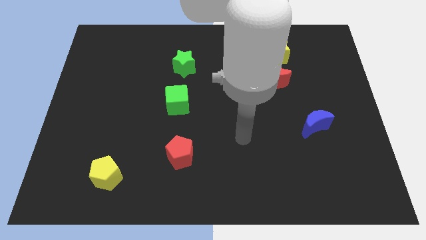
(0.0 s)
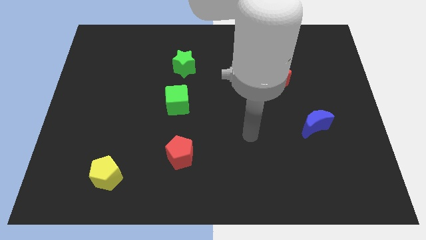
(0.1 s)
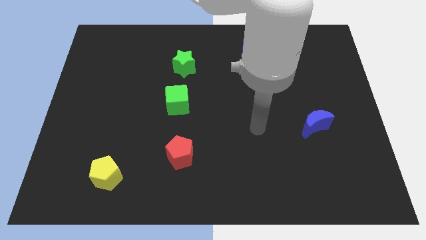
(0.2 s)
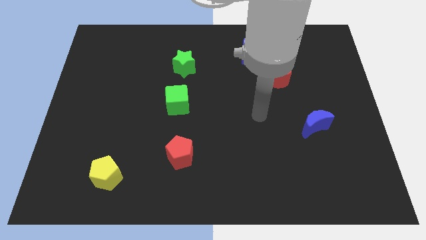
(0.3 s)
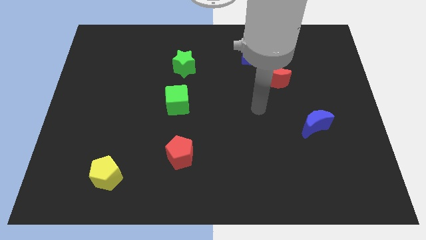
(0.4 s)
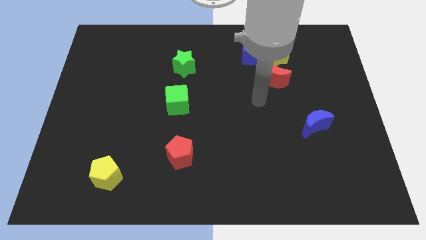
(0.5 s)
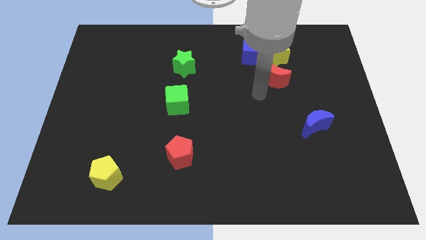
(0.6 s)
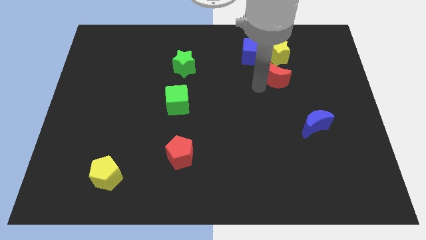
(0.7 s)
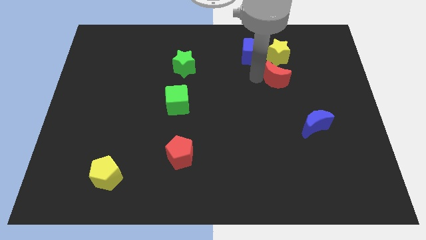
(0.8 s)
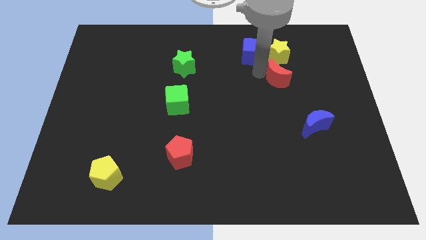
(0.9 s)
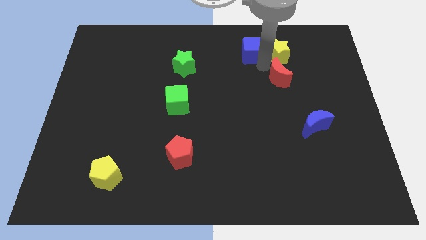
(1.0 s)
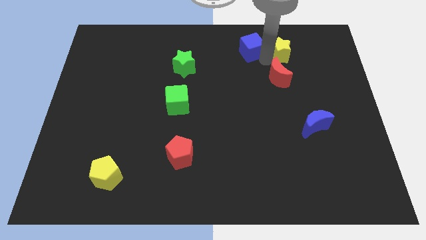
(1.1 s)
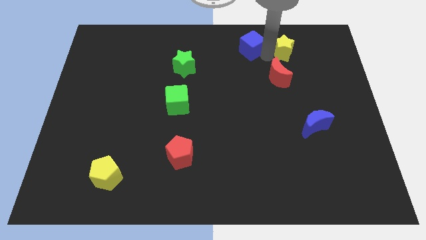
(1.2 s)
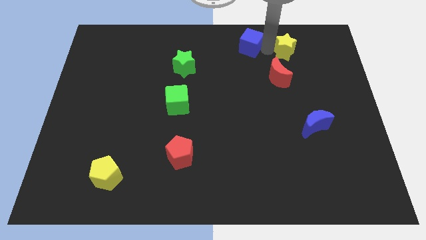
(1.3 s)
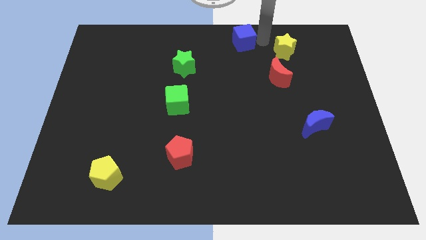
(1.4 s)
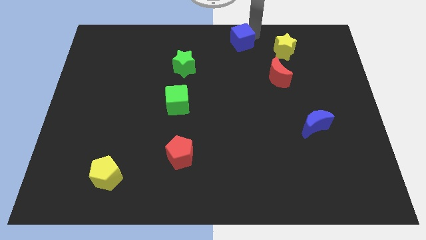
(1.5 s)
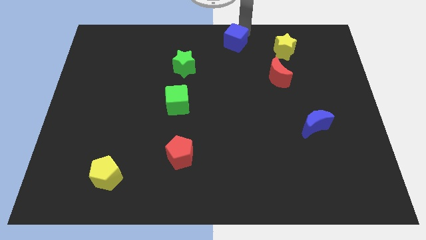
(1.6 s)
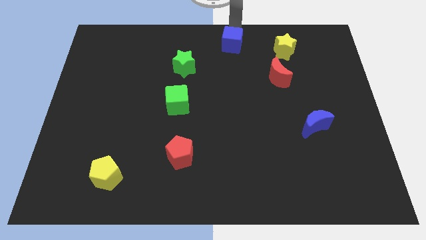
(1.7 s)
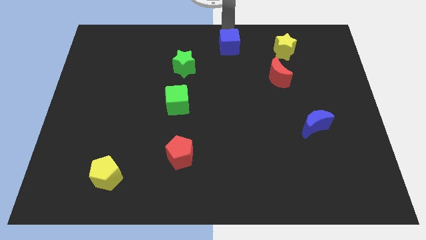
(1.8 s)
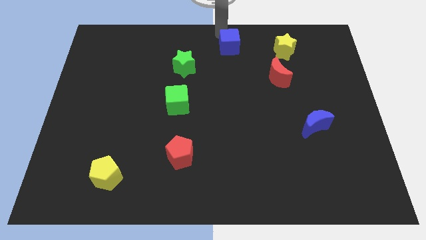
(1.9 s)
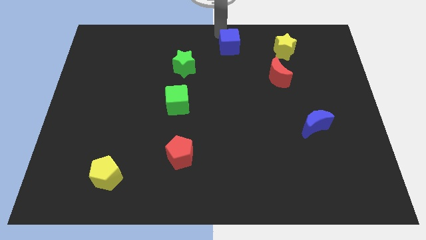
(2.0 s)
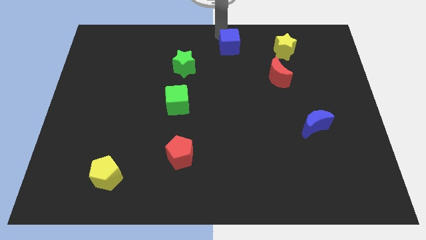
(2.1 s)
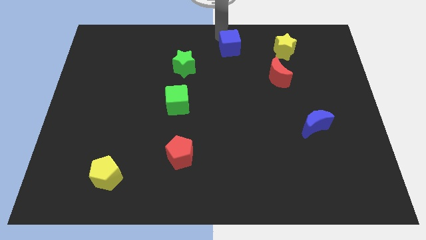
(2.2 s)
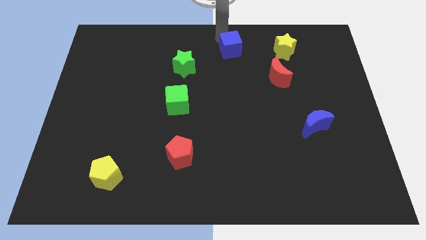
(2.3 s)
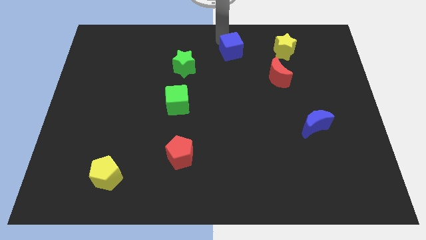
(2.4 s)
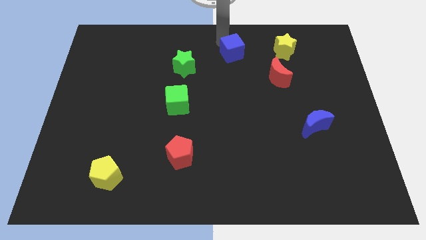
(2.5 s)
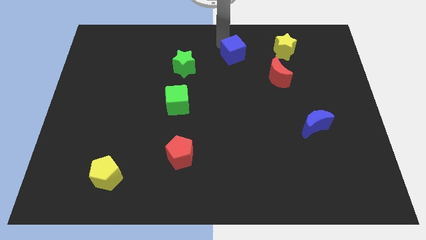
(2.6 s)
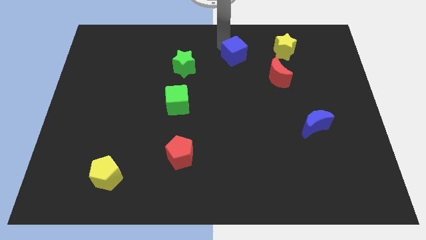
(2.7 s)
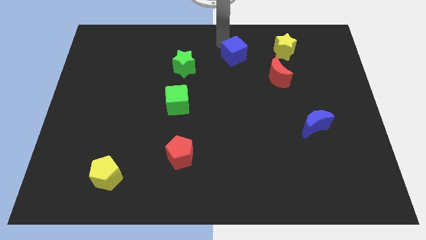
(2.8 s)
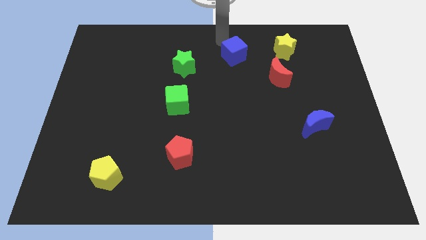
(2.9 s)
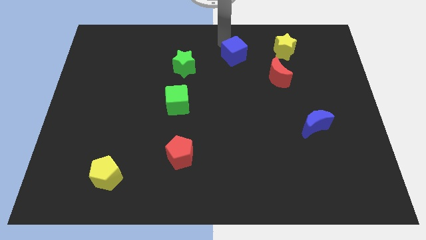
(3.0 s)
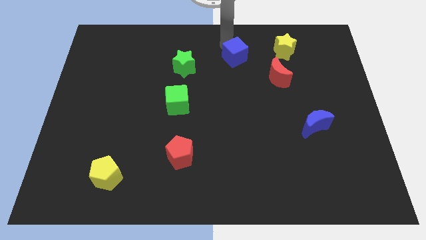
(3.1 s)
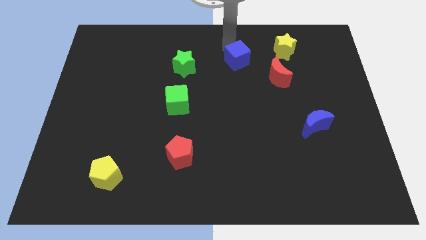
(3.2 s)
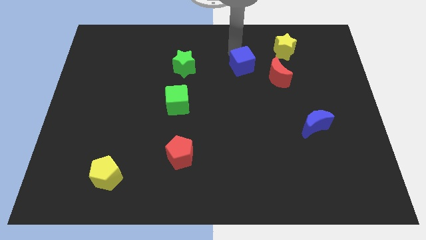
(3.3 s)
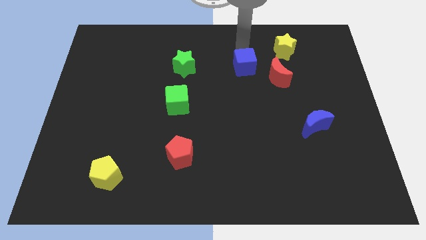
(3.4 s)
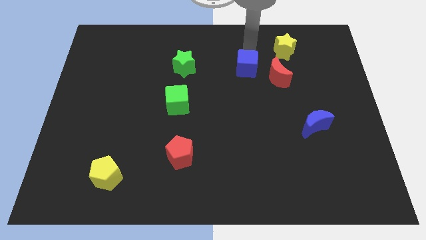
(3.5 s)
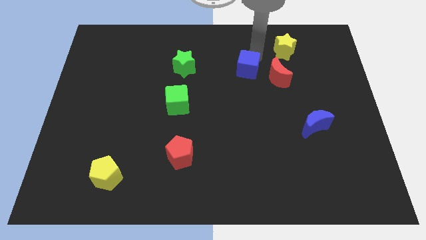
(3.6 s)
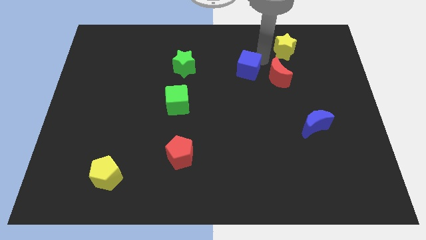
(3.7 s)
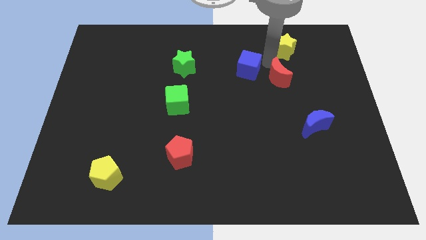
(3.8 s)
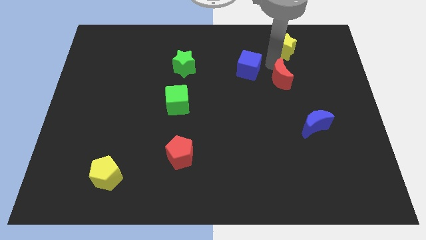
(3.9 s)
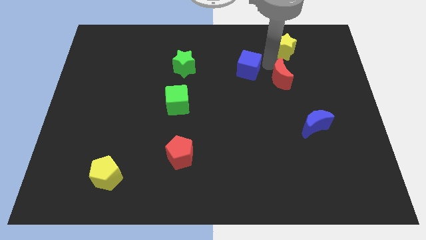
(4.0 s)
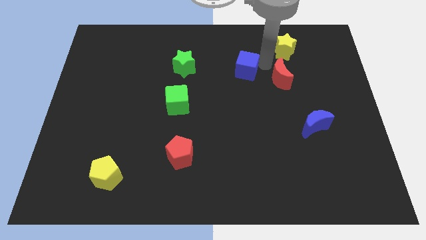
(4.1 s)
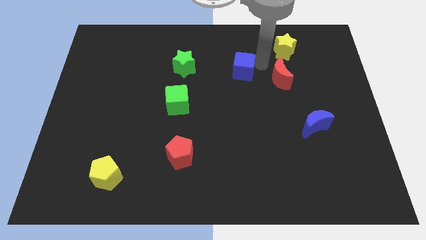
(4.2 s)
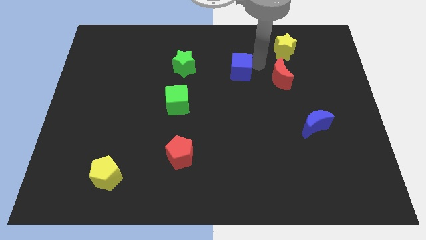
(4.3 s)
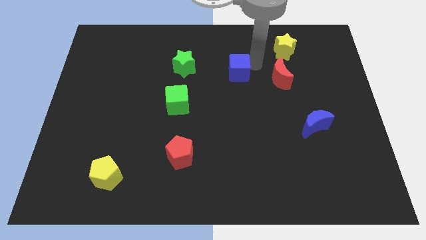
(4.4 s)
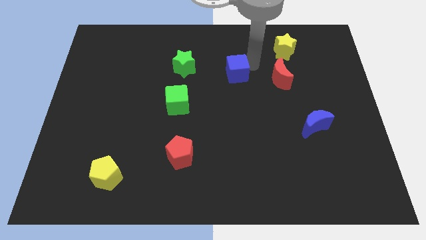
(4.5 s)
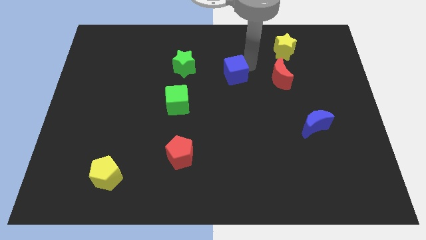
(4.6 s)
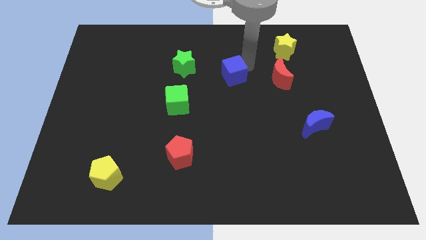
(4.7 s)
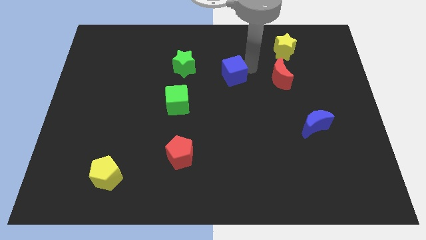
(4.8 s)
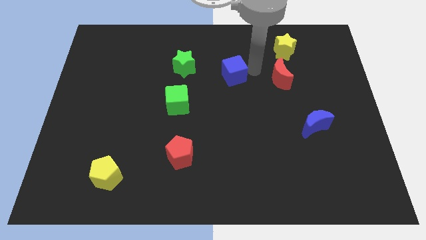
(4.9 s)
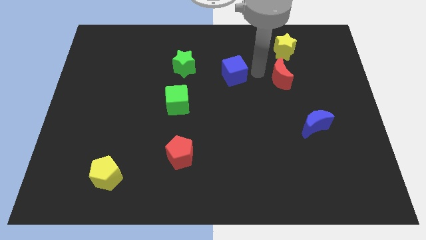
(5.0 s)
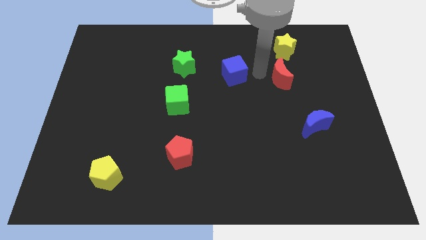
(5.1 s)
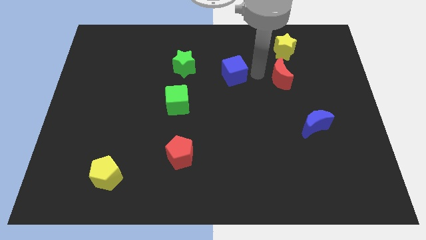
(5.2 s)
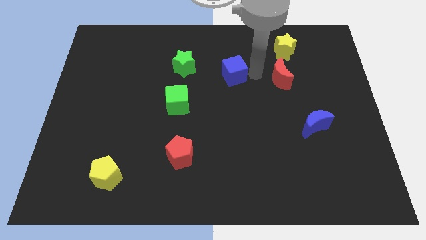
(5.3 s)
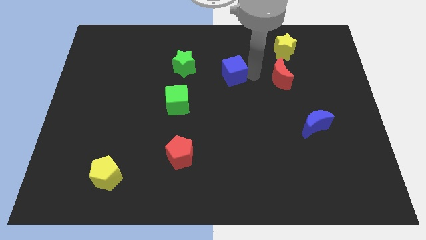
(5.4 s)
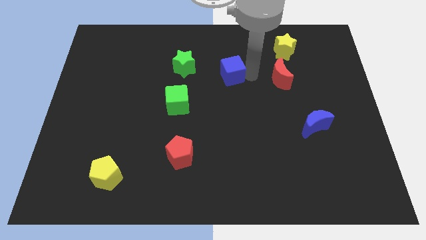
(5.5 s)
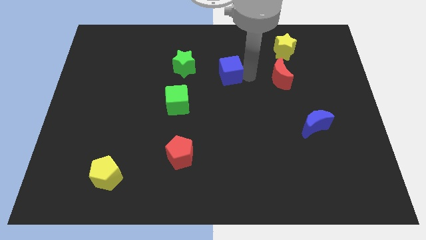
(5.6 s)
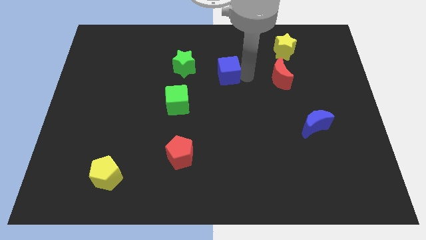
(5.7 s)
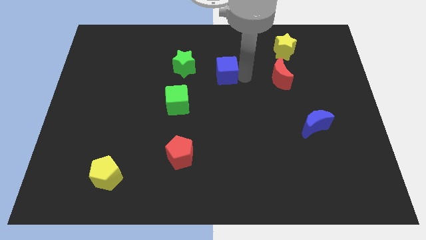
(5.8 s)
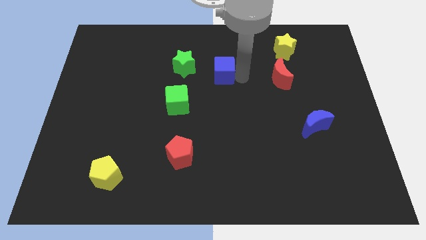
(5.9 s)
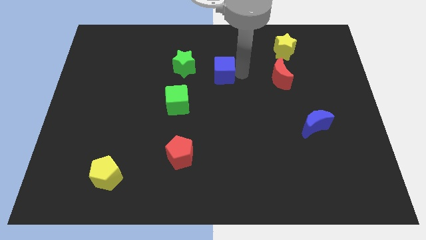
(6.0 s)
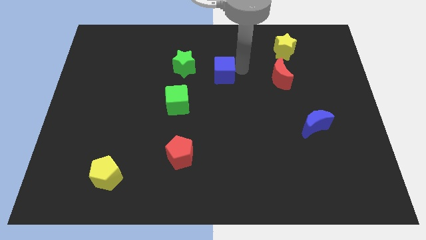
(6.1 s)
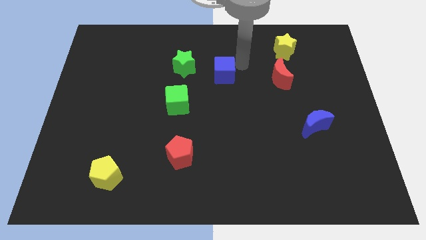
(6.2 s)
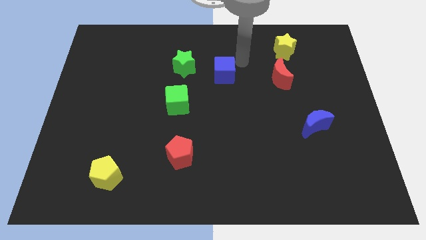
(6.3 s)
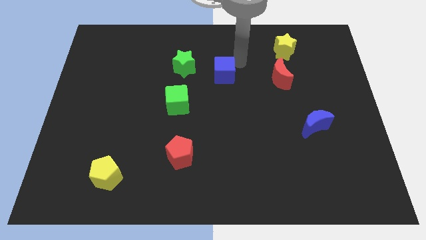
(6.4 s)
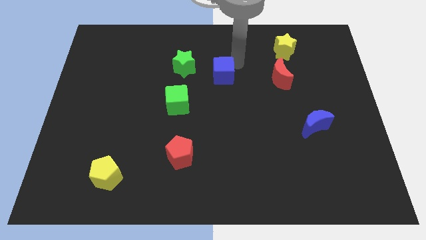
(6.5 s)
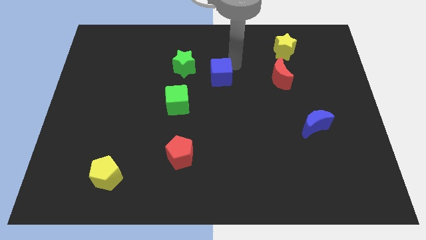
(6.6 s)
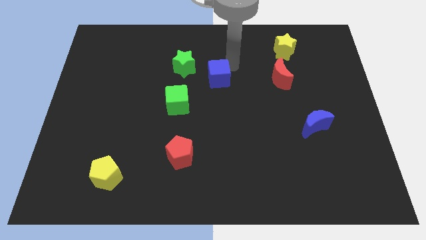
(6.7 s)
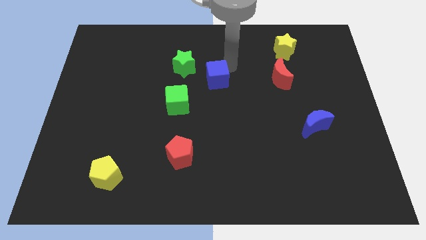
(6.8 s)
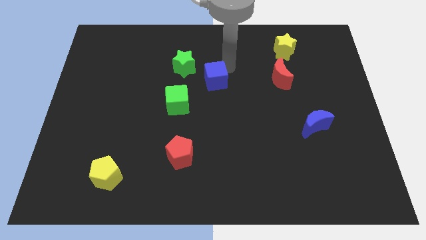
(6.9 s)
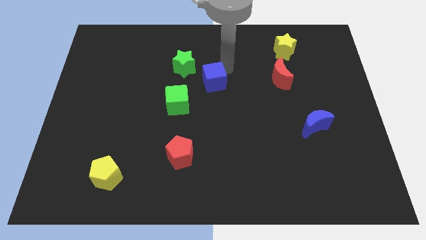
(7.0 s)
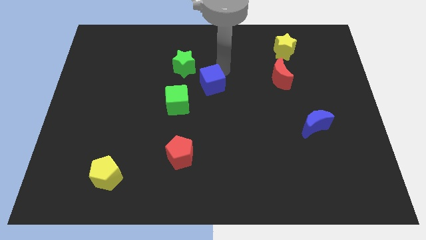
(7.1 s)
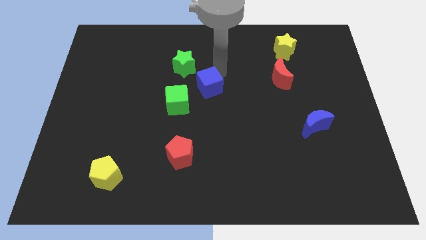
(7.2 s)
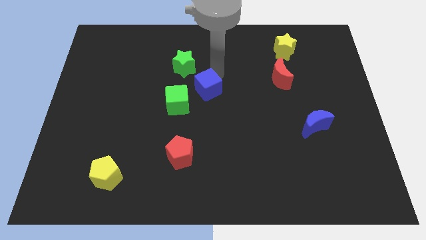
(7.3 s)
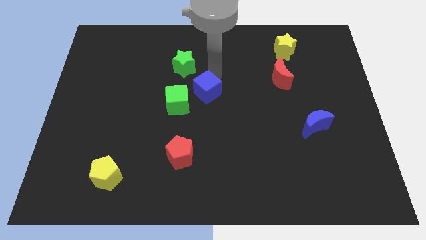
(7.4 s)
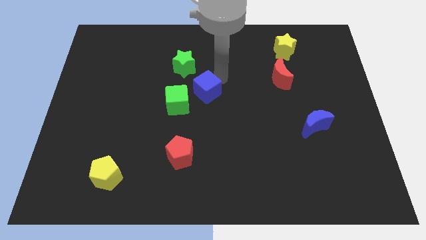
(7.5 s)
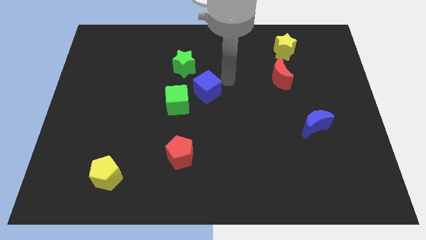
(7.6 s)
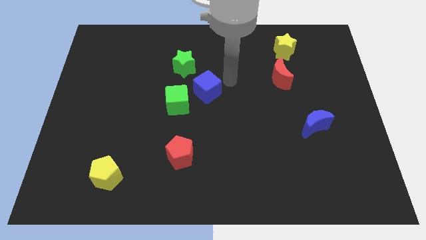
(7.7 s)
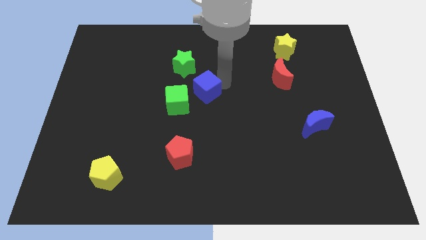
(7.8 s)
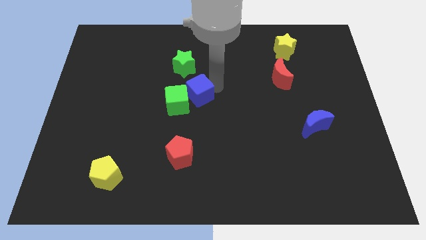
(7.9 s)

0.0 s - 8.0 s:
slide the blue cube next to the green cube
